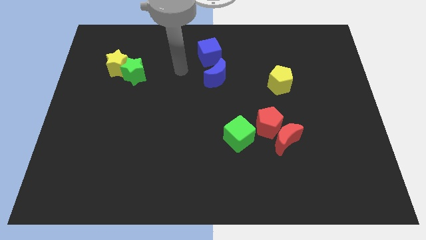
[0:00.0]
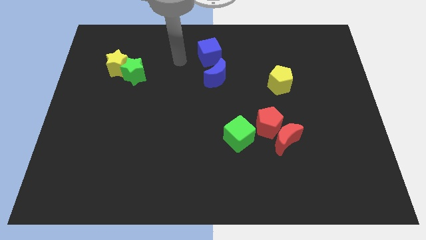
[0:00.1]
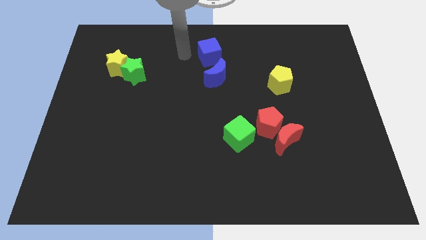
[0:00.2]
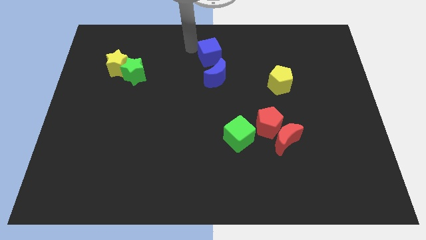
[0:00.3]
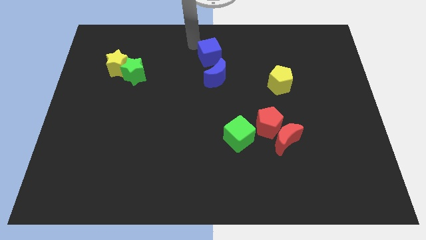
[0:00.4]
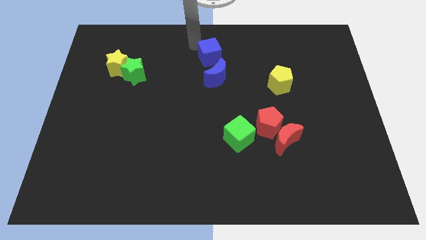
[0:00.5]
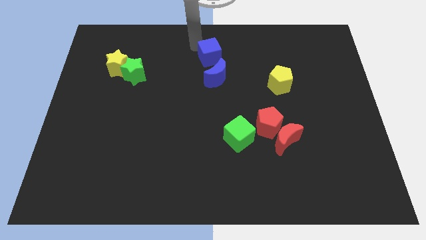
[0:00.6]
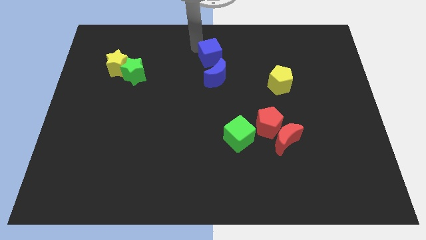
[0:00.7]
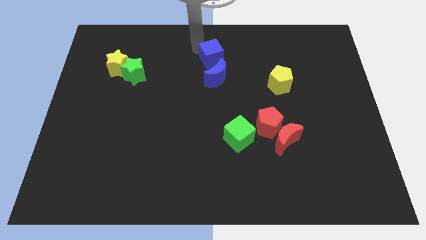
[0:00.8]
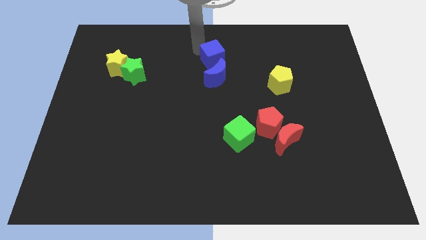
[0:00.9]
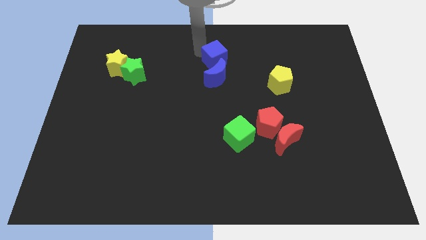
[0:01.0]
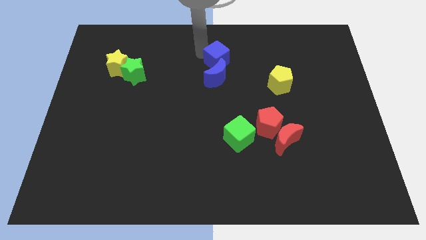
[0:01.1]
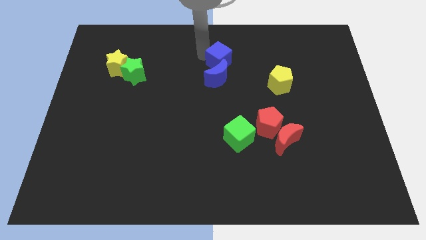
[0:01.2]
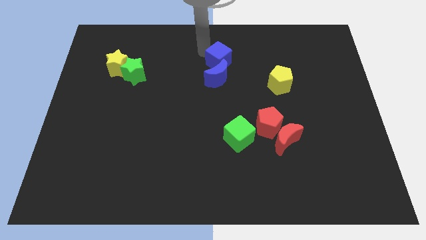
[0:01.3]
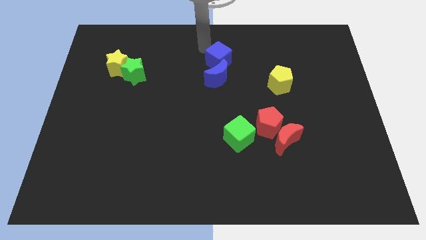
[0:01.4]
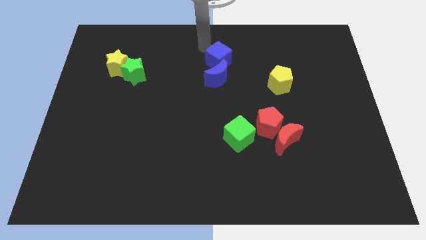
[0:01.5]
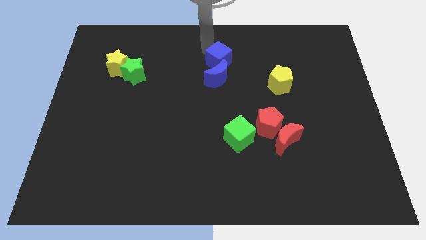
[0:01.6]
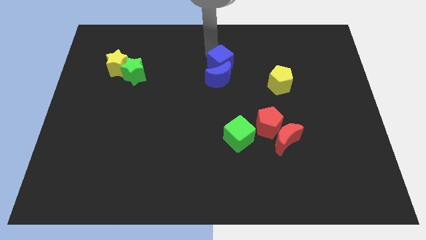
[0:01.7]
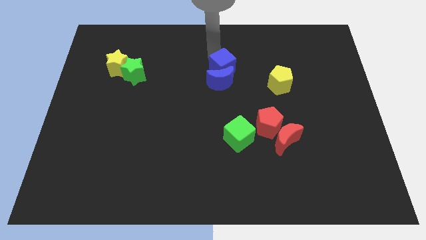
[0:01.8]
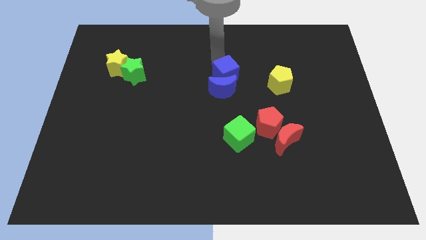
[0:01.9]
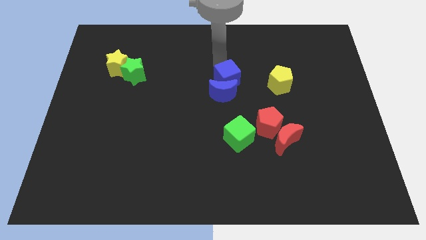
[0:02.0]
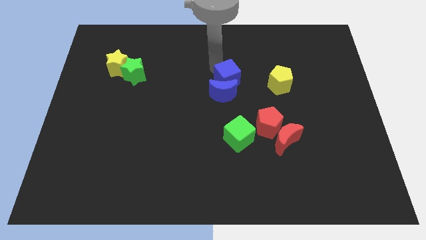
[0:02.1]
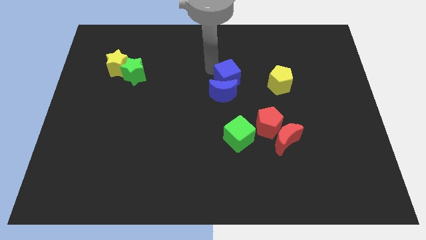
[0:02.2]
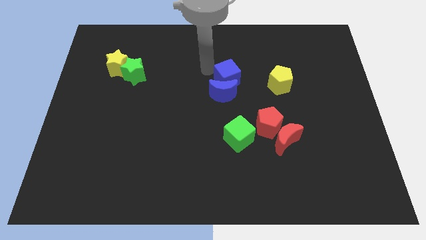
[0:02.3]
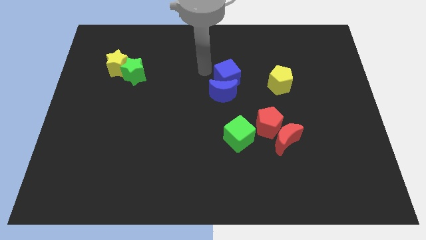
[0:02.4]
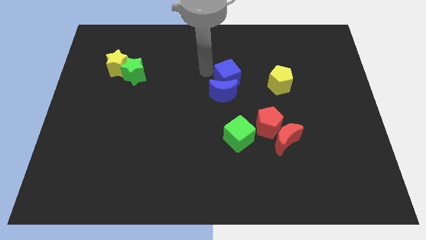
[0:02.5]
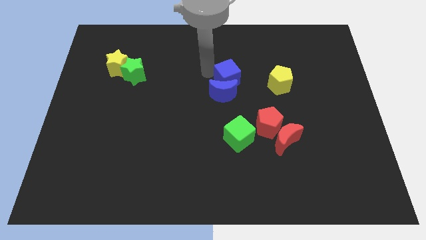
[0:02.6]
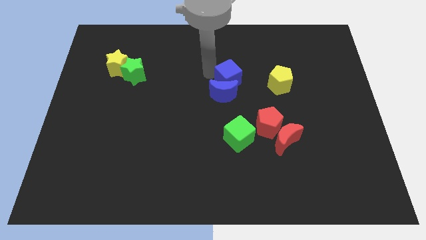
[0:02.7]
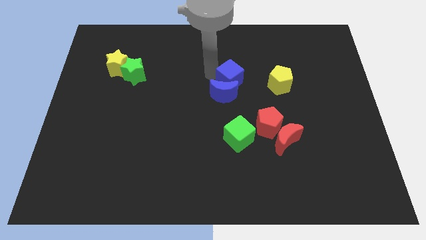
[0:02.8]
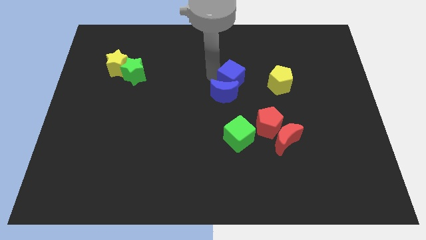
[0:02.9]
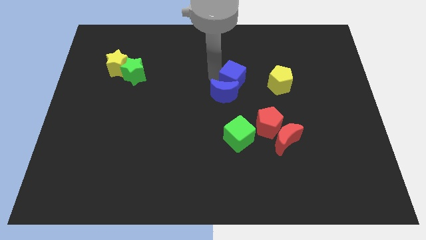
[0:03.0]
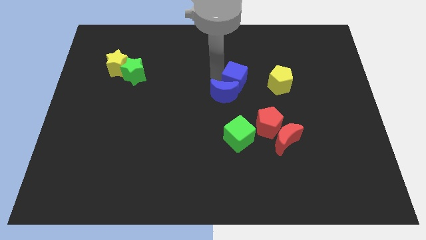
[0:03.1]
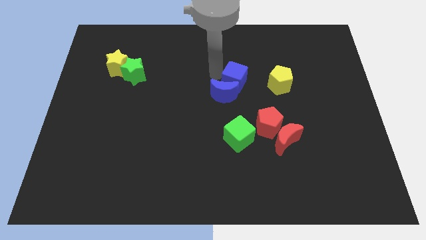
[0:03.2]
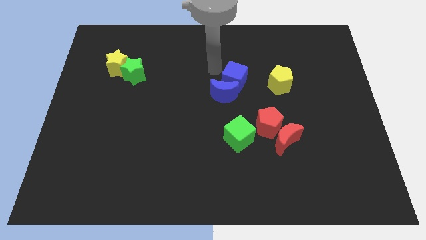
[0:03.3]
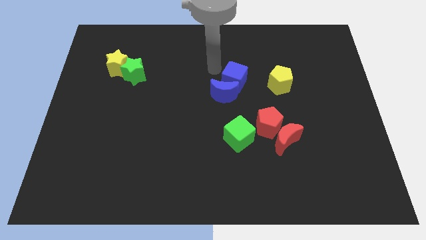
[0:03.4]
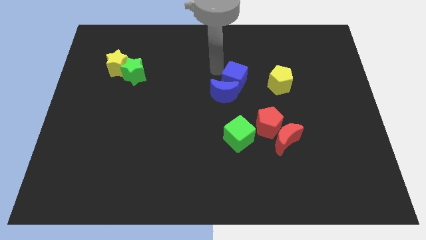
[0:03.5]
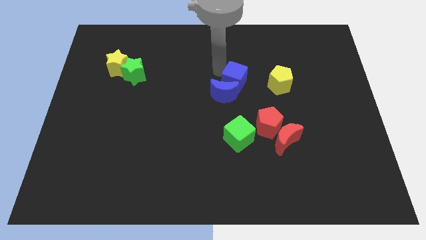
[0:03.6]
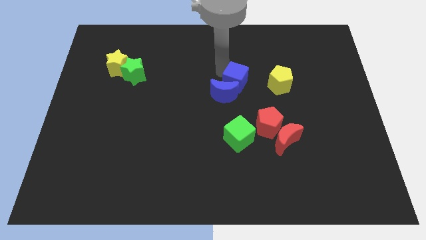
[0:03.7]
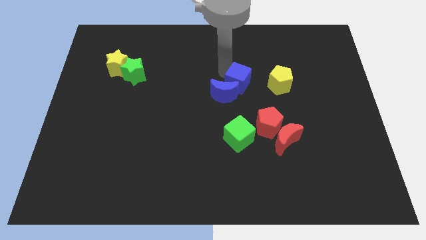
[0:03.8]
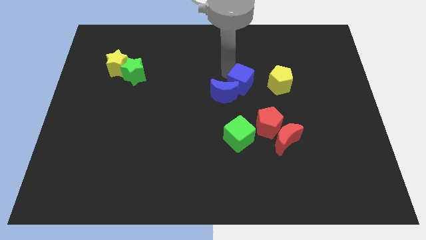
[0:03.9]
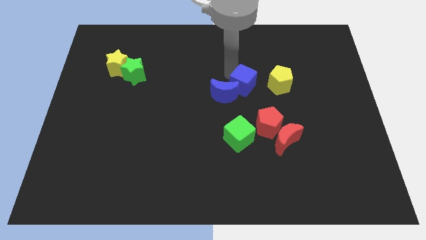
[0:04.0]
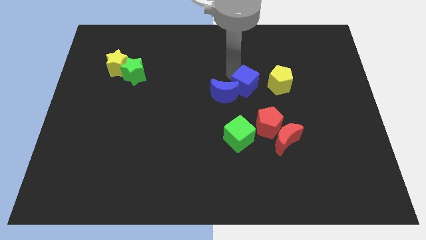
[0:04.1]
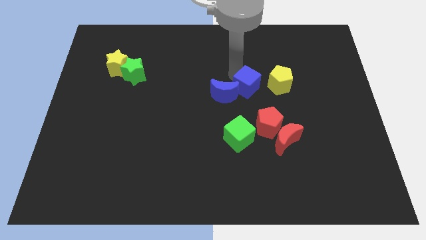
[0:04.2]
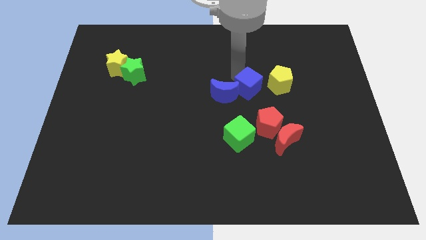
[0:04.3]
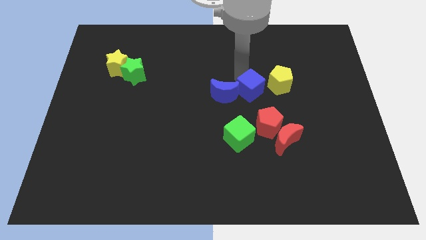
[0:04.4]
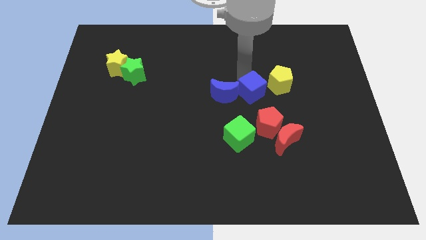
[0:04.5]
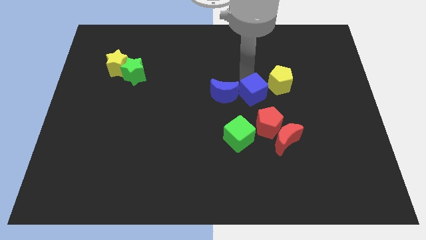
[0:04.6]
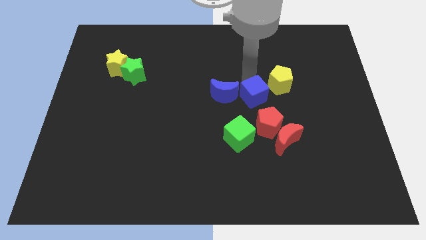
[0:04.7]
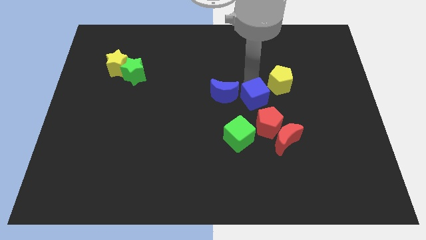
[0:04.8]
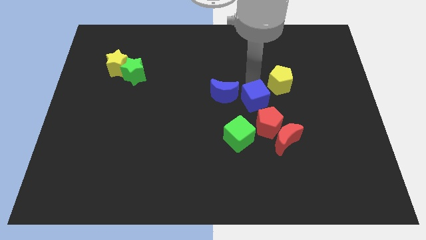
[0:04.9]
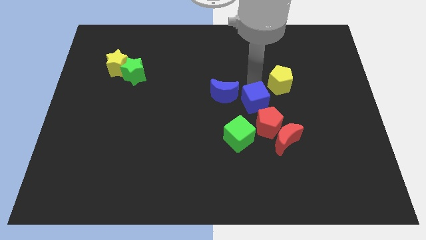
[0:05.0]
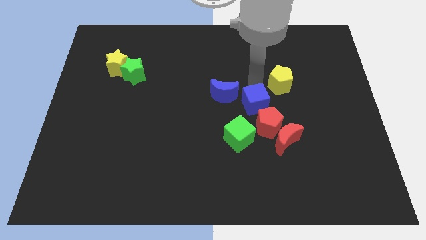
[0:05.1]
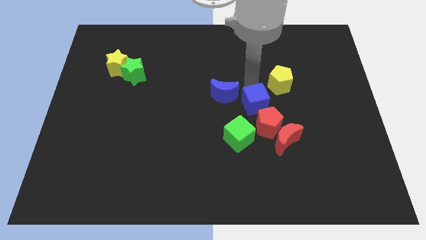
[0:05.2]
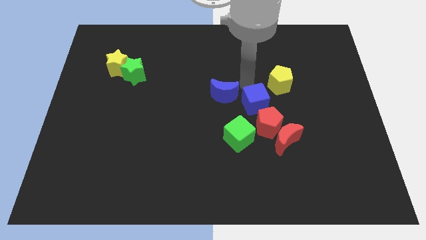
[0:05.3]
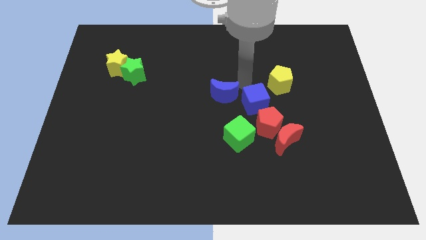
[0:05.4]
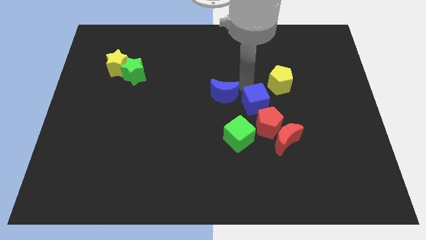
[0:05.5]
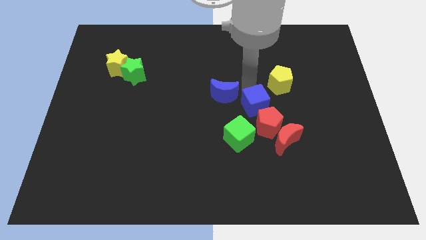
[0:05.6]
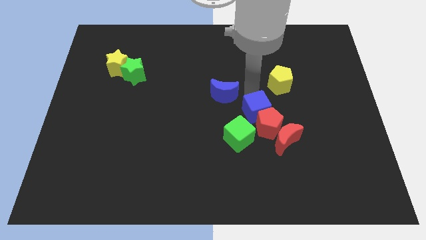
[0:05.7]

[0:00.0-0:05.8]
move the blue cube close to the red pentagon

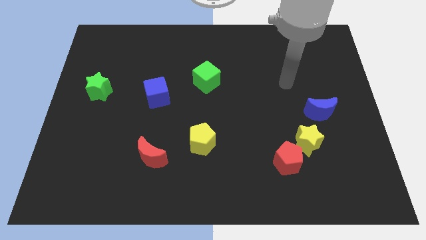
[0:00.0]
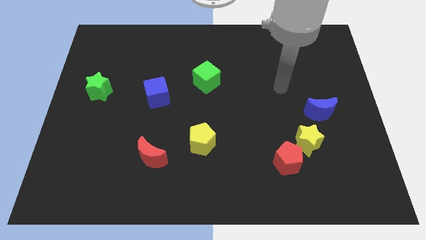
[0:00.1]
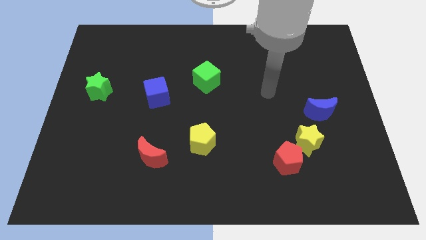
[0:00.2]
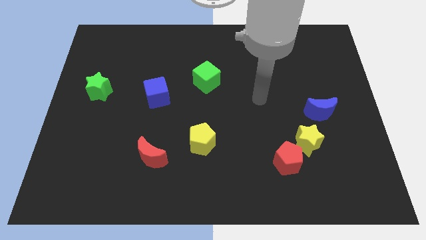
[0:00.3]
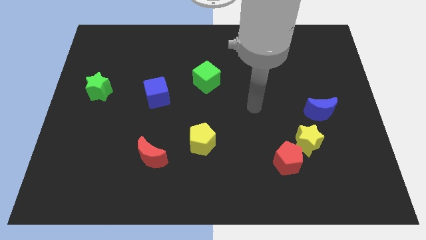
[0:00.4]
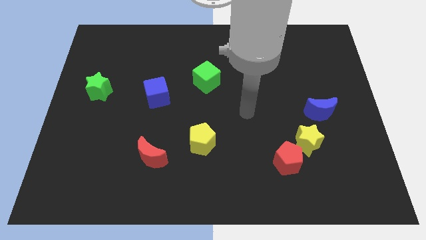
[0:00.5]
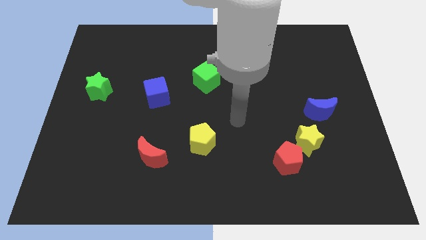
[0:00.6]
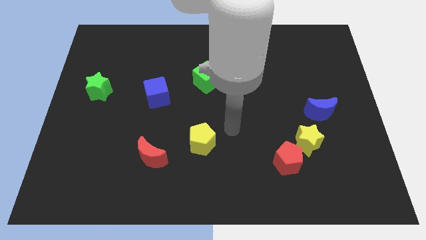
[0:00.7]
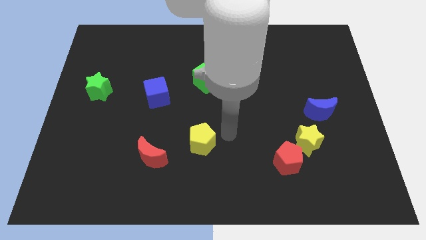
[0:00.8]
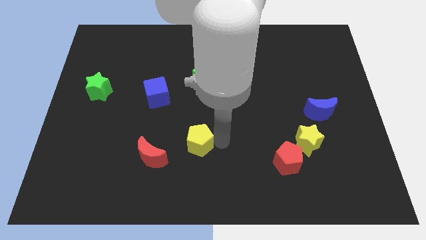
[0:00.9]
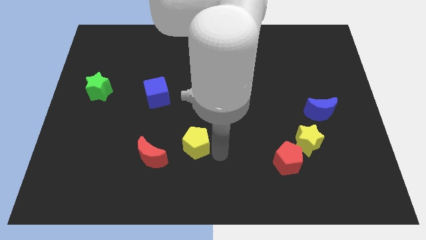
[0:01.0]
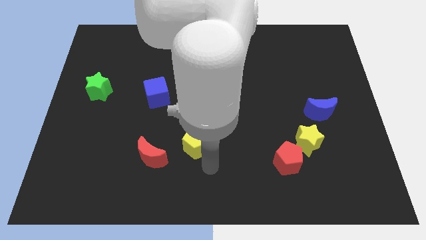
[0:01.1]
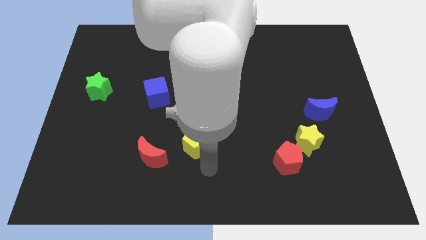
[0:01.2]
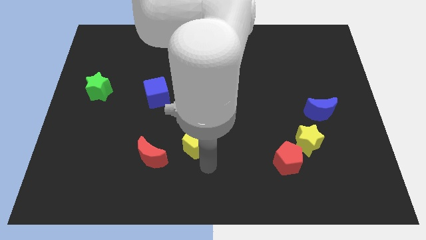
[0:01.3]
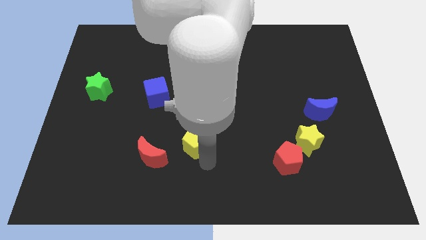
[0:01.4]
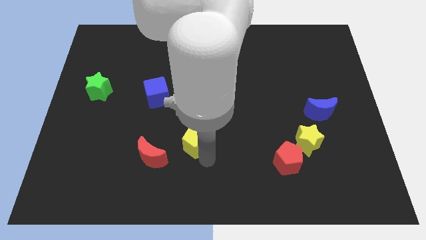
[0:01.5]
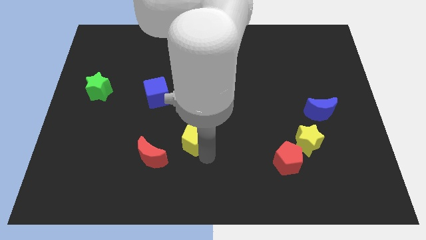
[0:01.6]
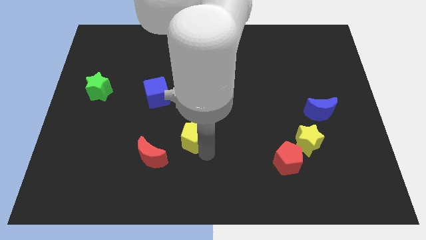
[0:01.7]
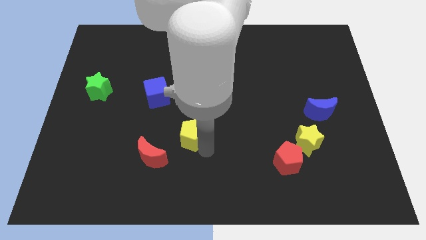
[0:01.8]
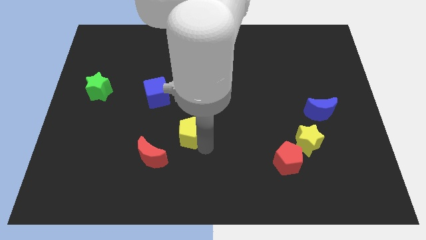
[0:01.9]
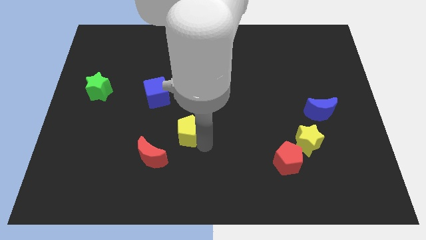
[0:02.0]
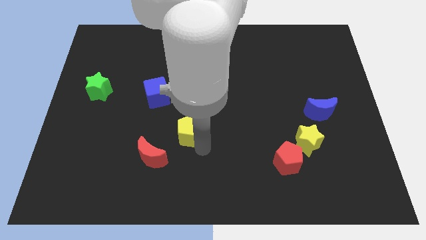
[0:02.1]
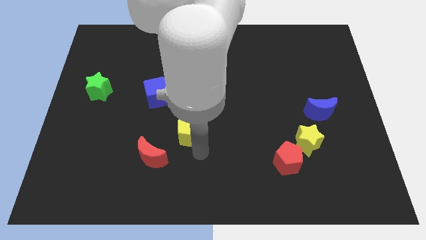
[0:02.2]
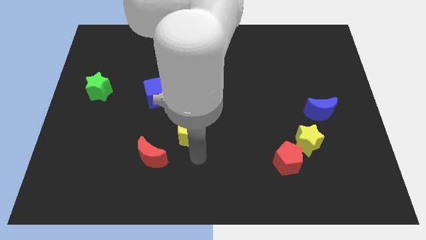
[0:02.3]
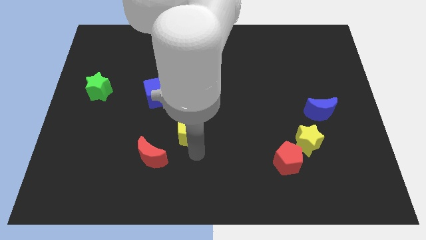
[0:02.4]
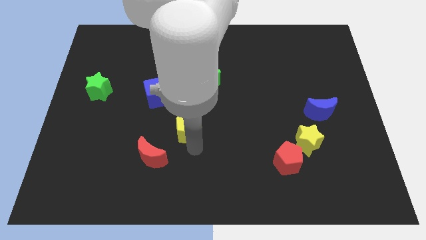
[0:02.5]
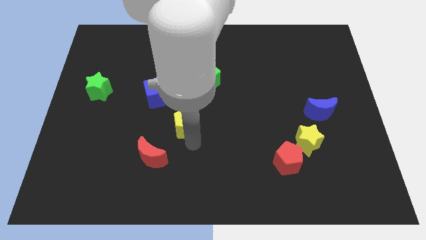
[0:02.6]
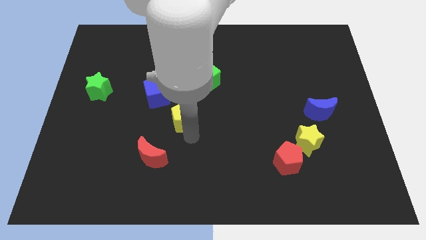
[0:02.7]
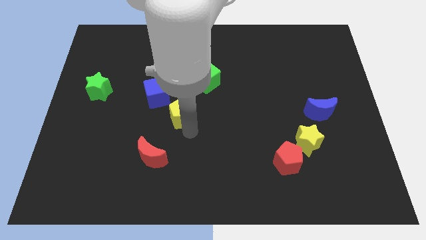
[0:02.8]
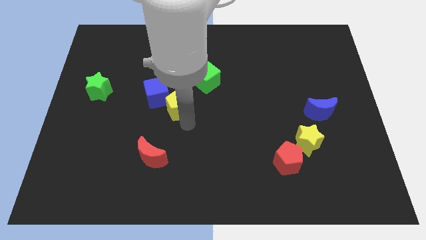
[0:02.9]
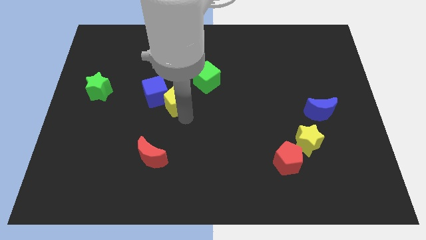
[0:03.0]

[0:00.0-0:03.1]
push the yellow pentagon to the blue cube
